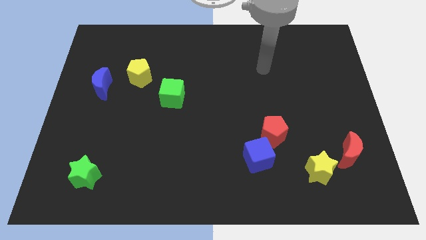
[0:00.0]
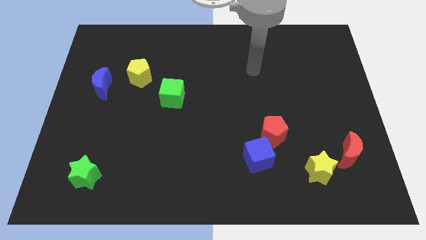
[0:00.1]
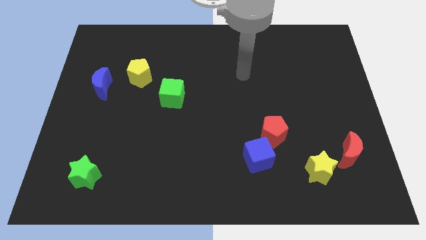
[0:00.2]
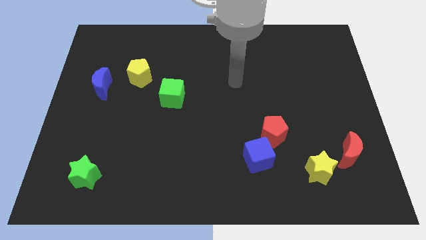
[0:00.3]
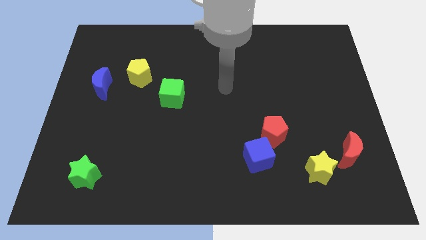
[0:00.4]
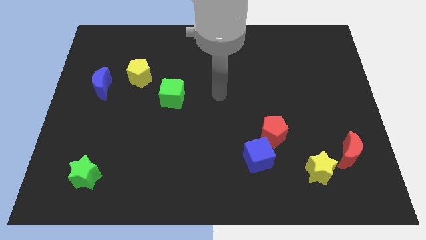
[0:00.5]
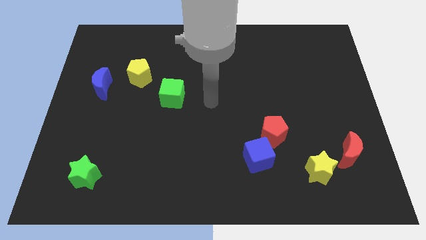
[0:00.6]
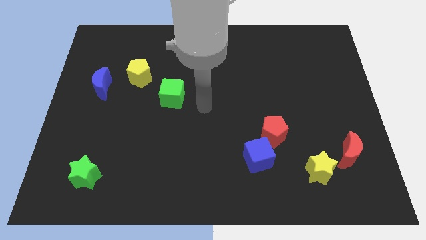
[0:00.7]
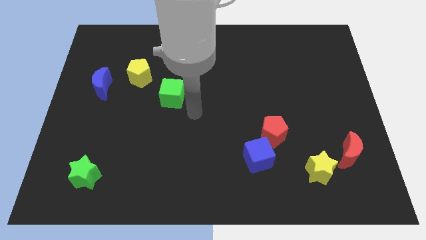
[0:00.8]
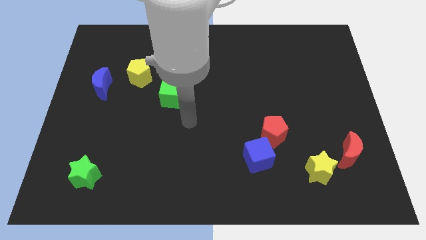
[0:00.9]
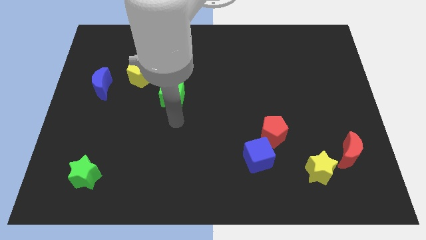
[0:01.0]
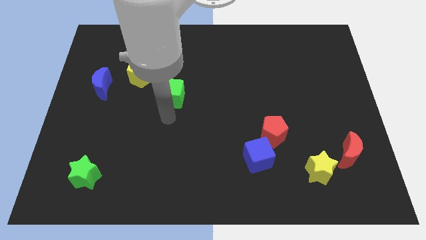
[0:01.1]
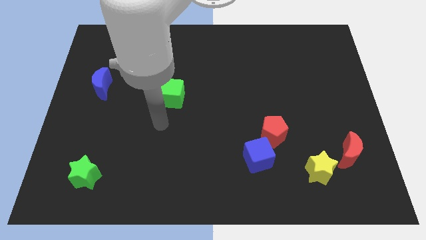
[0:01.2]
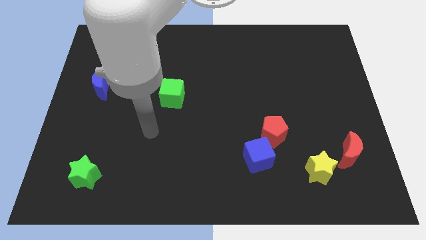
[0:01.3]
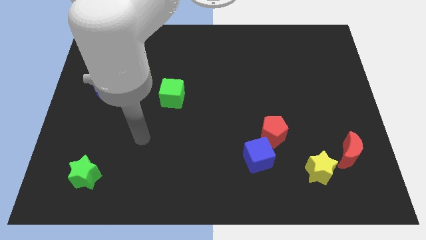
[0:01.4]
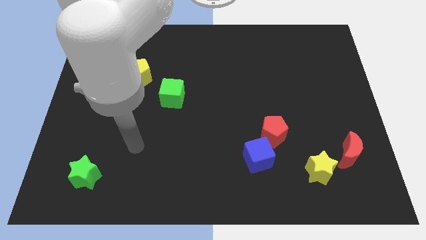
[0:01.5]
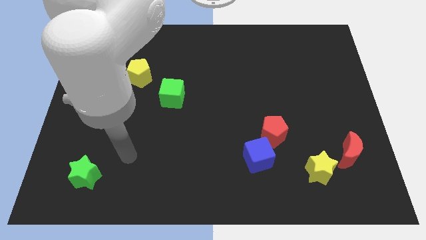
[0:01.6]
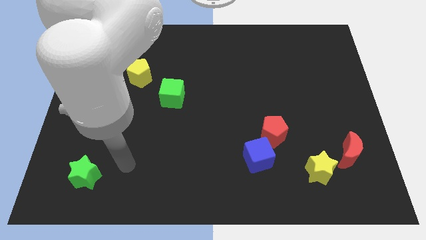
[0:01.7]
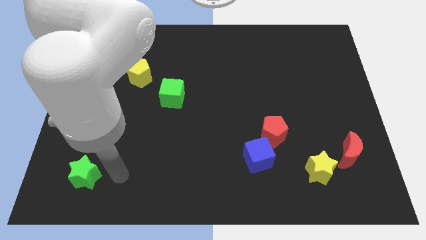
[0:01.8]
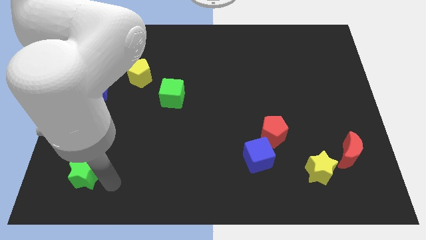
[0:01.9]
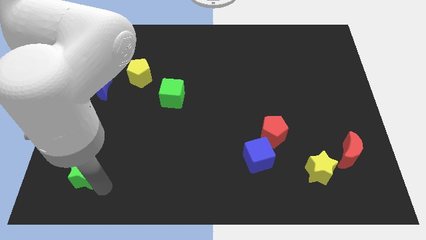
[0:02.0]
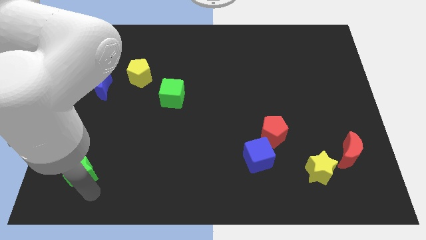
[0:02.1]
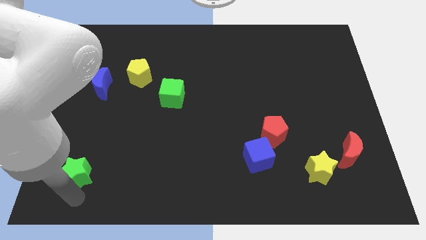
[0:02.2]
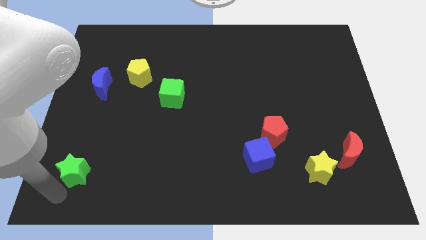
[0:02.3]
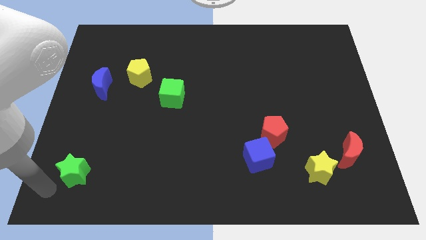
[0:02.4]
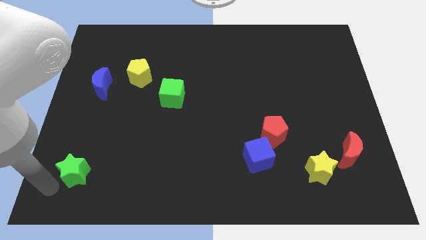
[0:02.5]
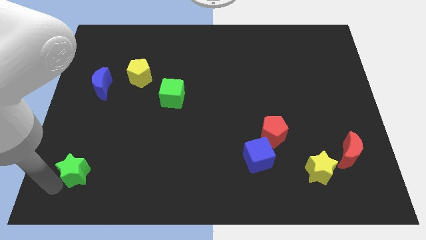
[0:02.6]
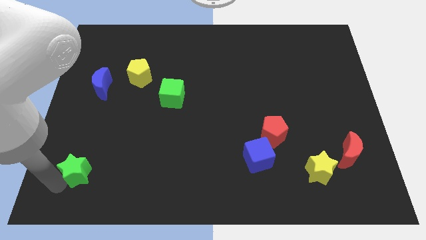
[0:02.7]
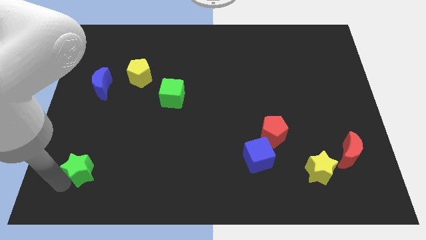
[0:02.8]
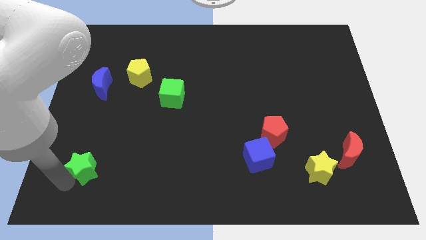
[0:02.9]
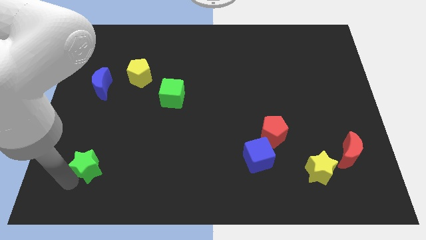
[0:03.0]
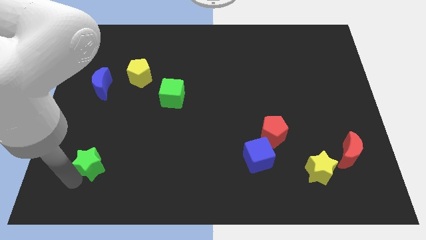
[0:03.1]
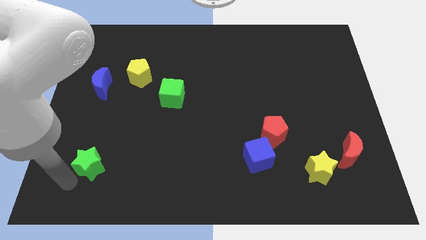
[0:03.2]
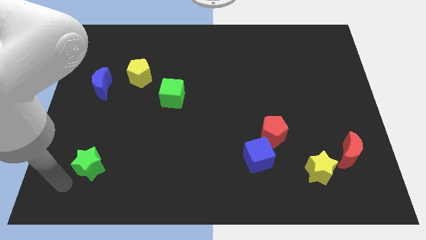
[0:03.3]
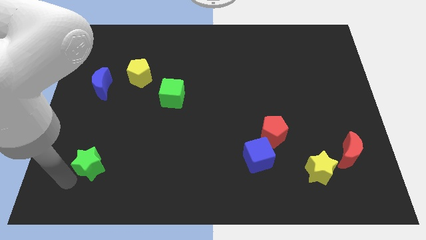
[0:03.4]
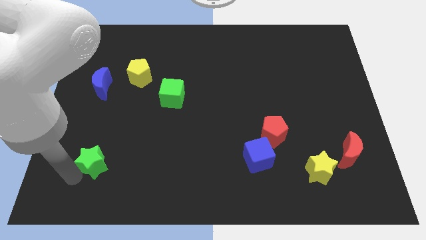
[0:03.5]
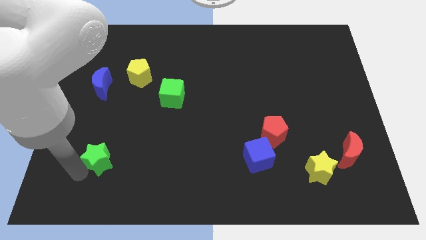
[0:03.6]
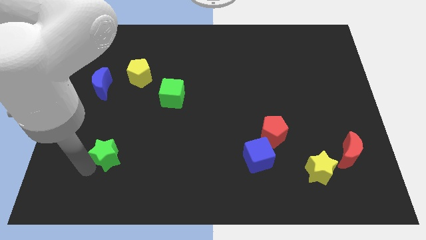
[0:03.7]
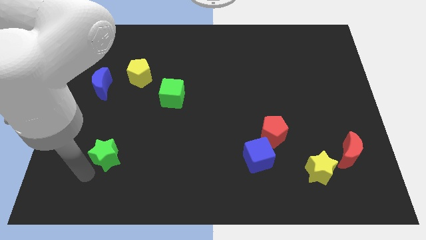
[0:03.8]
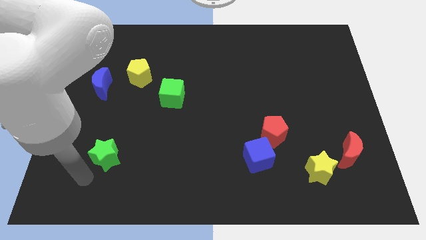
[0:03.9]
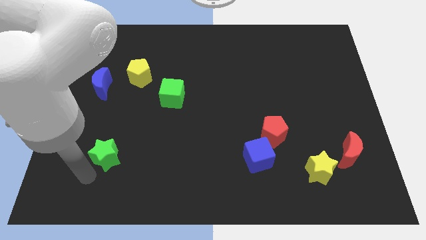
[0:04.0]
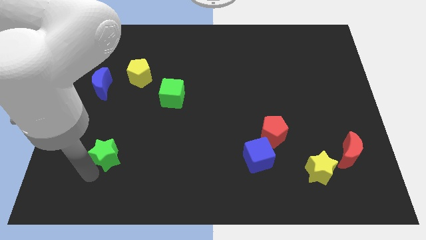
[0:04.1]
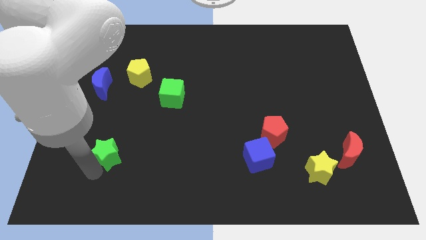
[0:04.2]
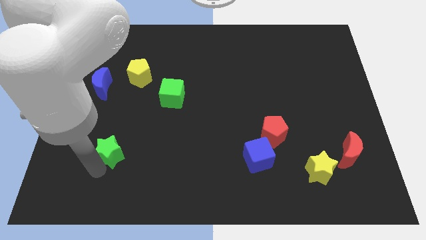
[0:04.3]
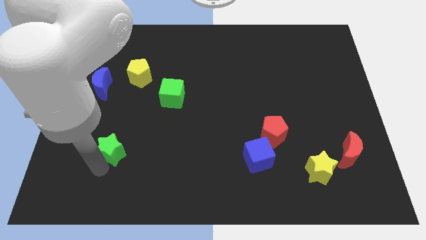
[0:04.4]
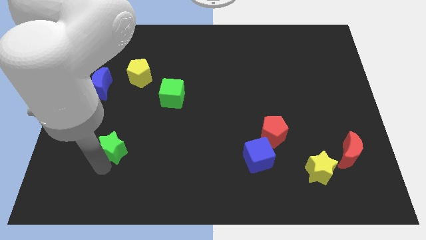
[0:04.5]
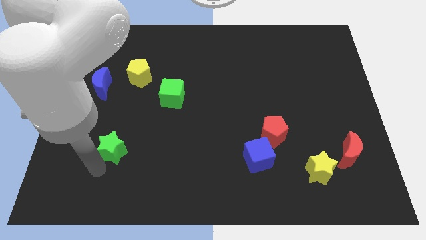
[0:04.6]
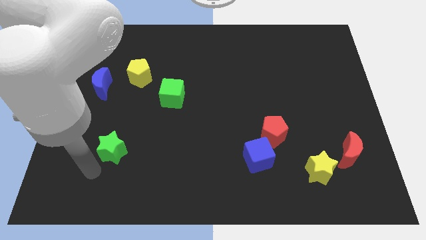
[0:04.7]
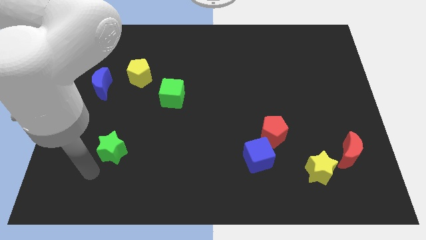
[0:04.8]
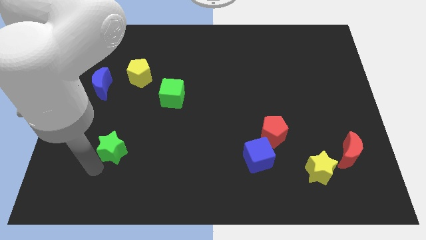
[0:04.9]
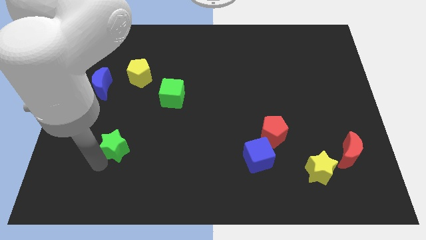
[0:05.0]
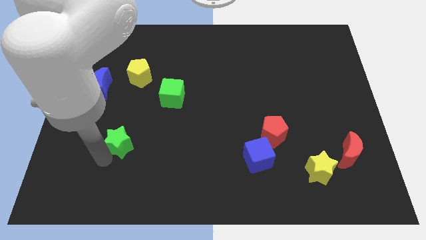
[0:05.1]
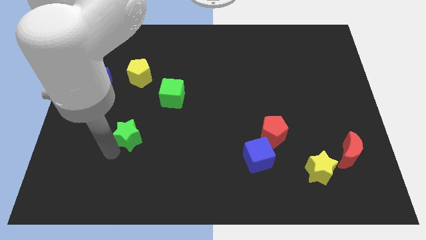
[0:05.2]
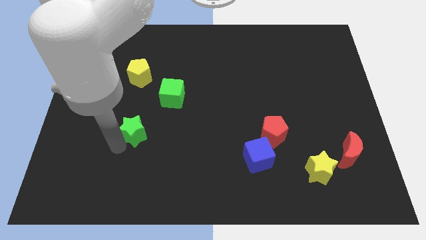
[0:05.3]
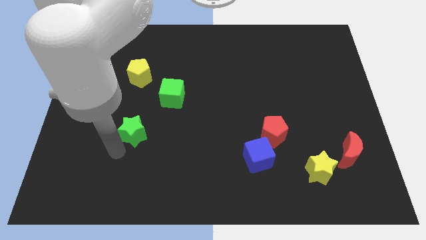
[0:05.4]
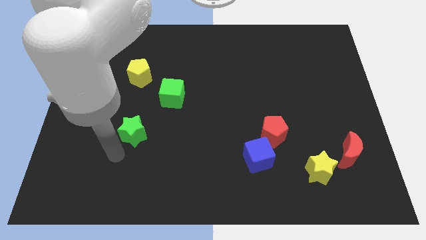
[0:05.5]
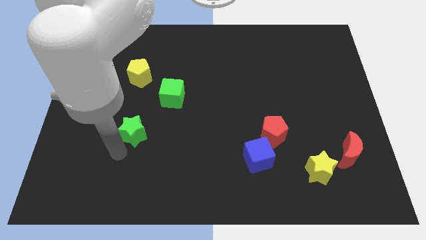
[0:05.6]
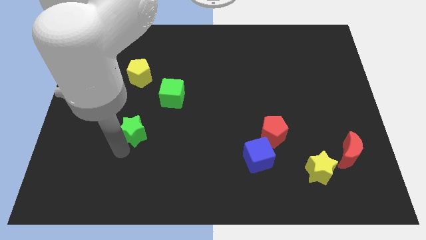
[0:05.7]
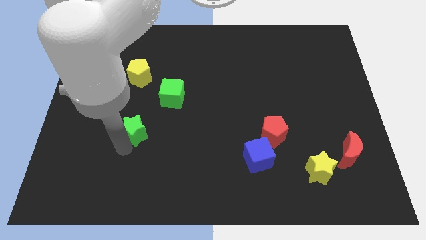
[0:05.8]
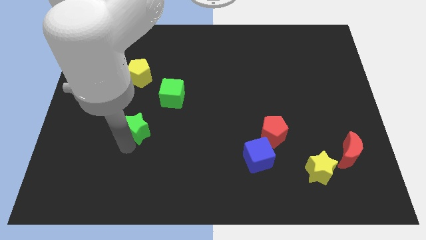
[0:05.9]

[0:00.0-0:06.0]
push the green star to the bottom left of the green cube

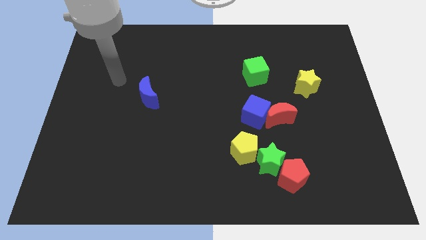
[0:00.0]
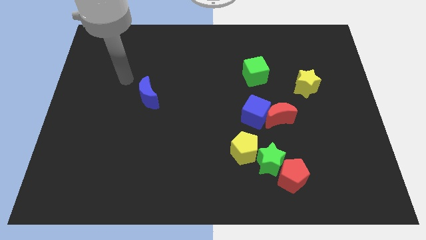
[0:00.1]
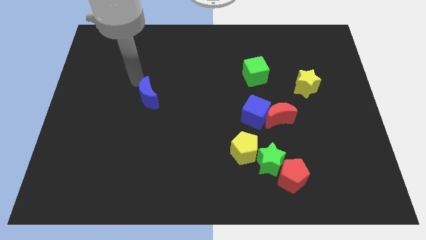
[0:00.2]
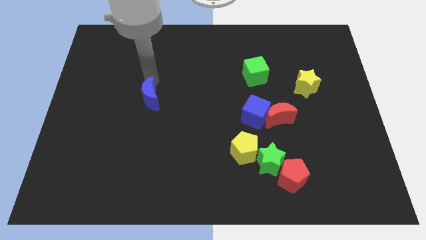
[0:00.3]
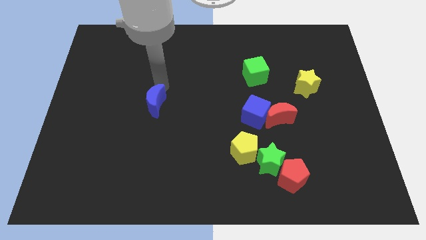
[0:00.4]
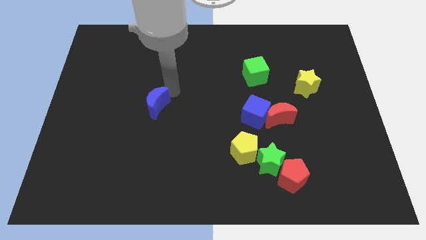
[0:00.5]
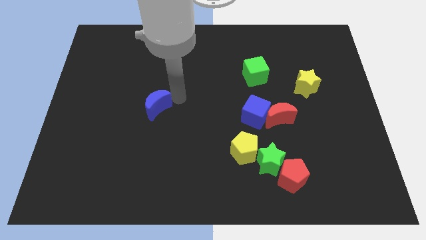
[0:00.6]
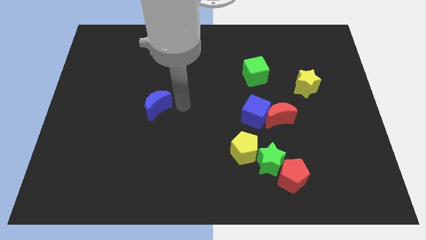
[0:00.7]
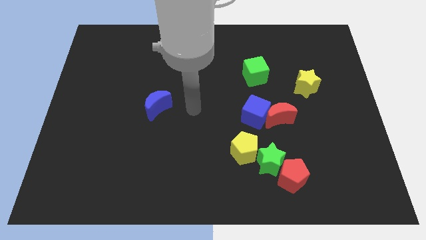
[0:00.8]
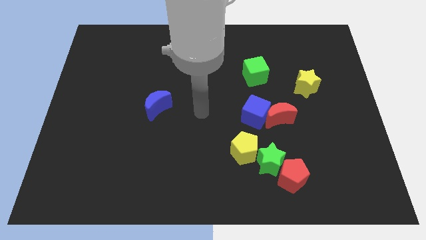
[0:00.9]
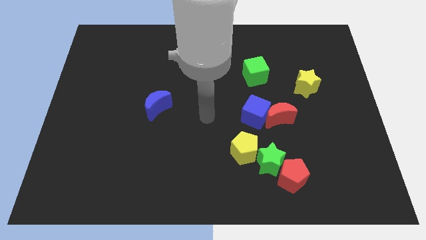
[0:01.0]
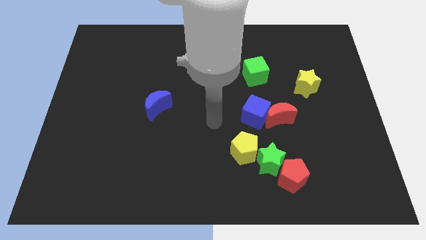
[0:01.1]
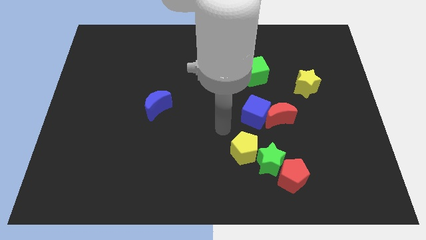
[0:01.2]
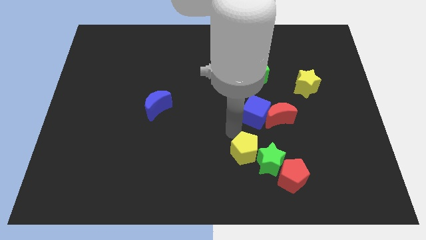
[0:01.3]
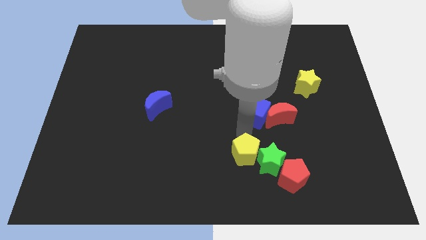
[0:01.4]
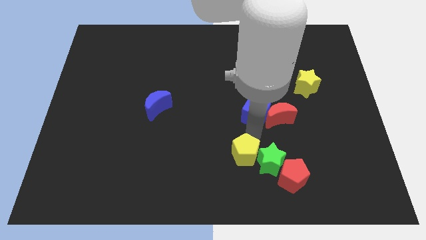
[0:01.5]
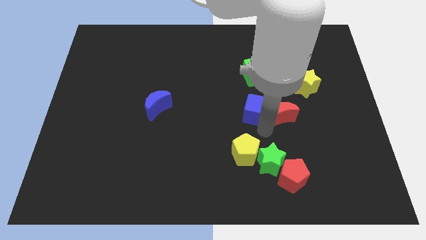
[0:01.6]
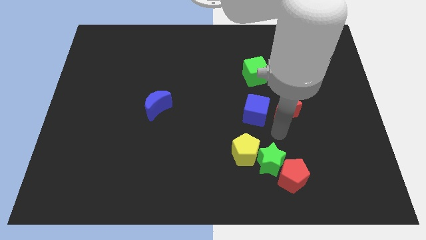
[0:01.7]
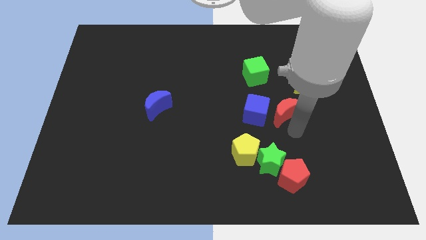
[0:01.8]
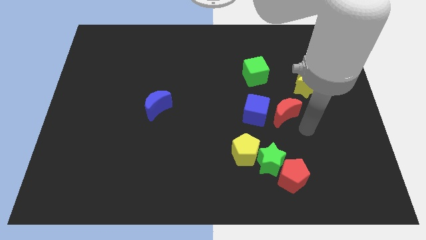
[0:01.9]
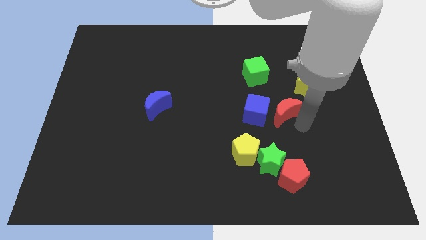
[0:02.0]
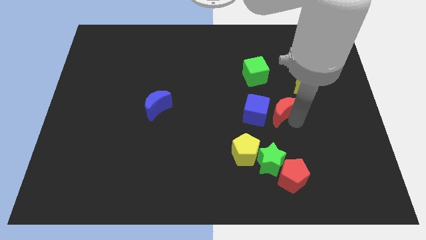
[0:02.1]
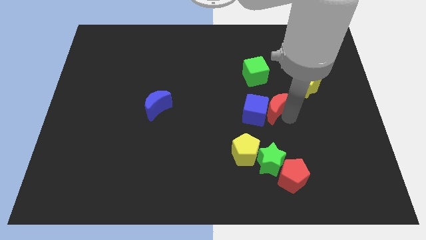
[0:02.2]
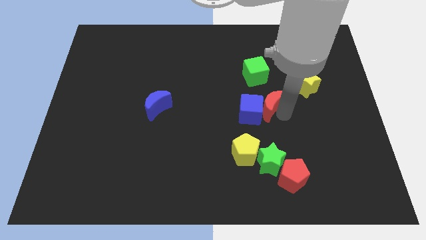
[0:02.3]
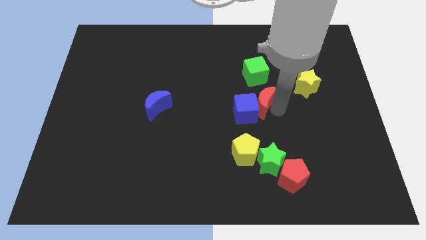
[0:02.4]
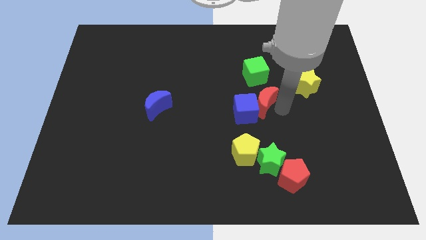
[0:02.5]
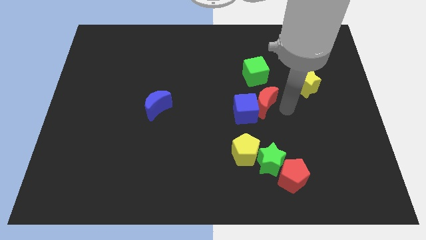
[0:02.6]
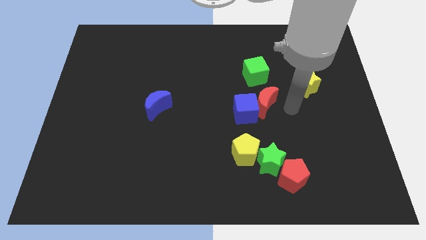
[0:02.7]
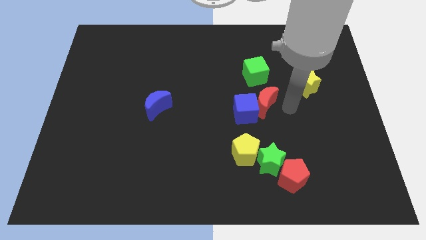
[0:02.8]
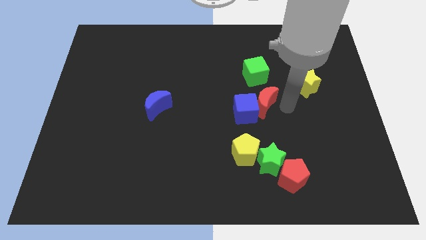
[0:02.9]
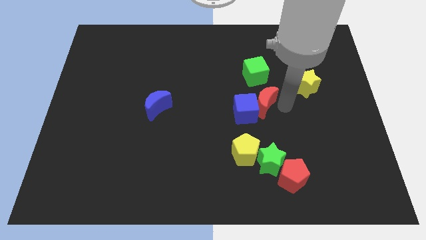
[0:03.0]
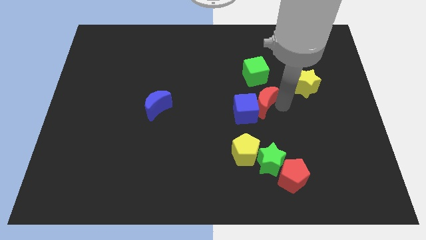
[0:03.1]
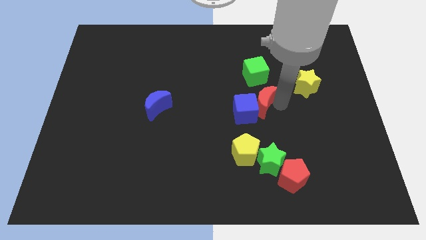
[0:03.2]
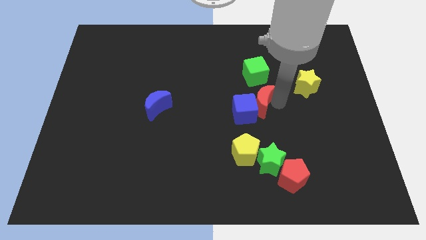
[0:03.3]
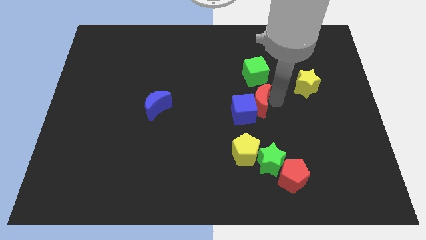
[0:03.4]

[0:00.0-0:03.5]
put the red moon to the top of the yellow pentagon
